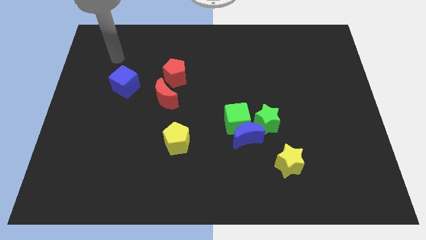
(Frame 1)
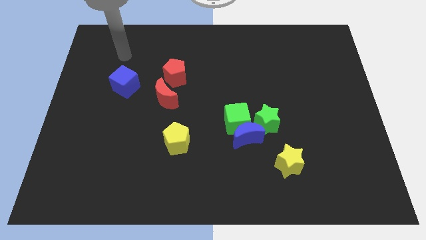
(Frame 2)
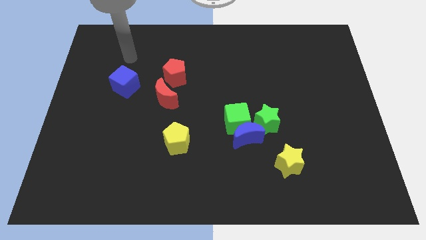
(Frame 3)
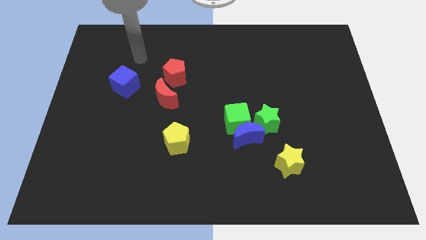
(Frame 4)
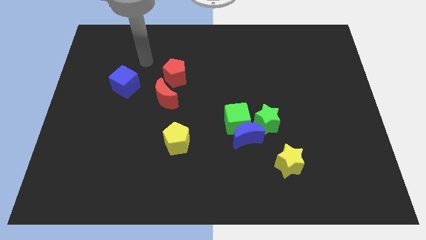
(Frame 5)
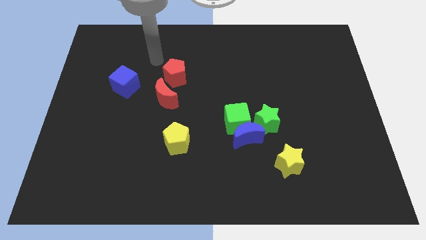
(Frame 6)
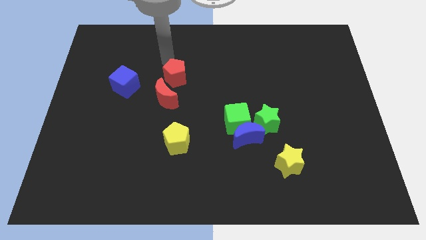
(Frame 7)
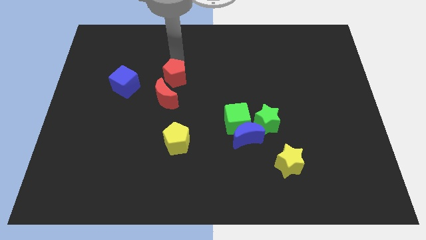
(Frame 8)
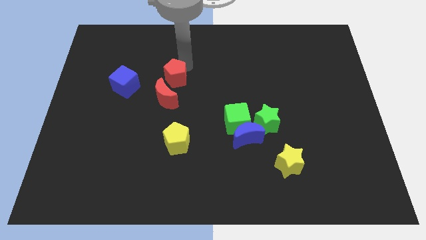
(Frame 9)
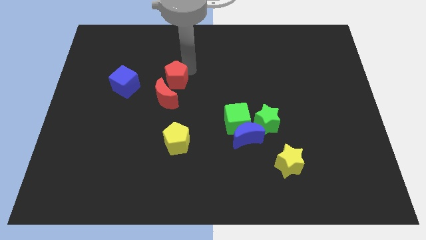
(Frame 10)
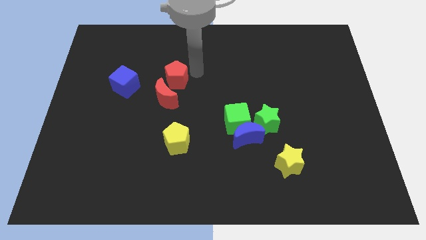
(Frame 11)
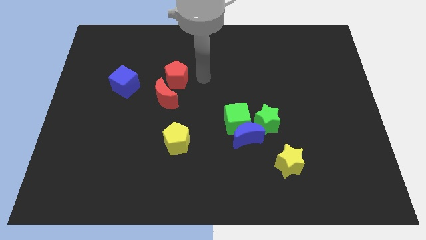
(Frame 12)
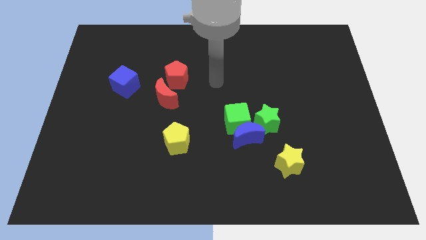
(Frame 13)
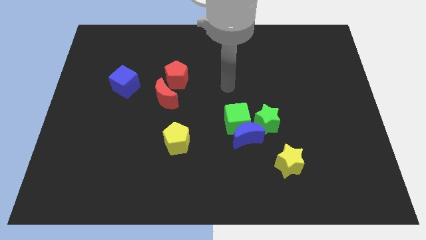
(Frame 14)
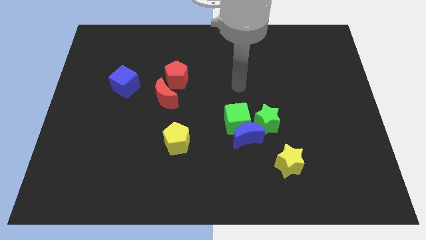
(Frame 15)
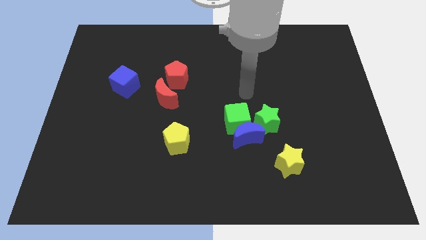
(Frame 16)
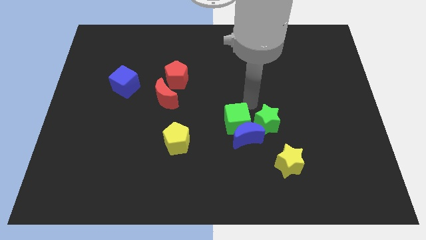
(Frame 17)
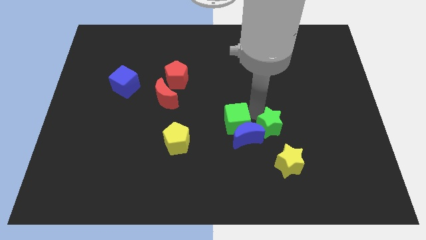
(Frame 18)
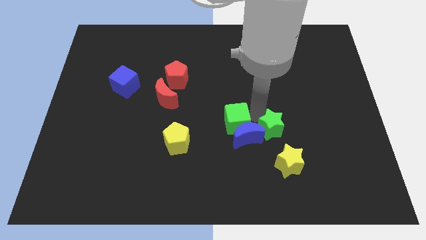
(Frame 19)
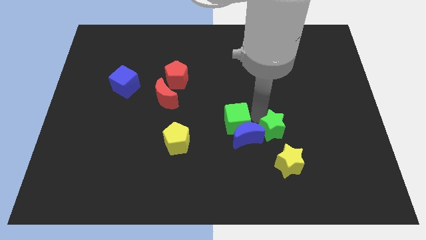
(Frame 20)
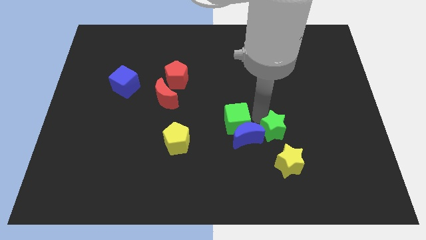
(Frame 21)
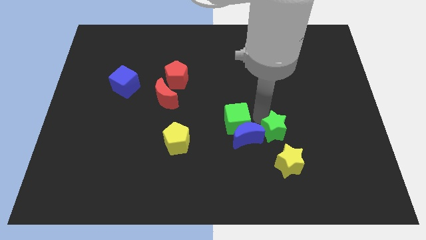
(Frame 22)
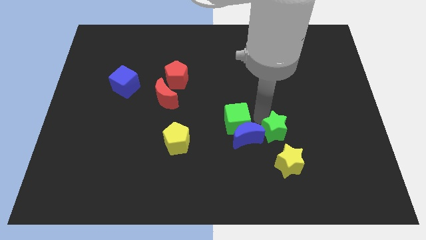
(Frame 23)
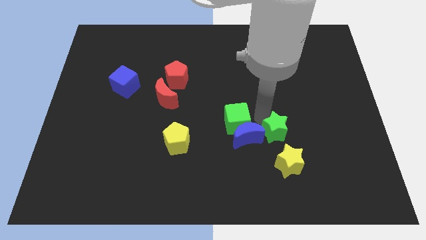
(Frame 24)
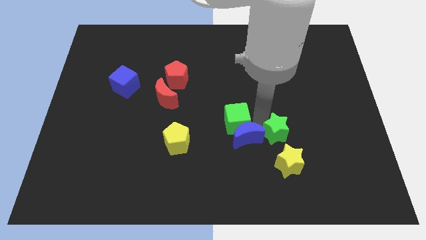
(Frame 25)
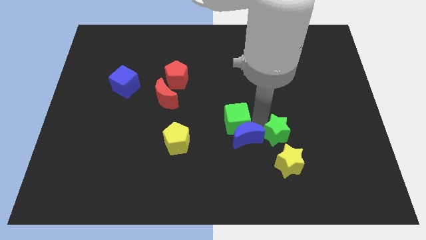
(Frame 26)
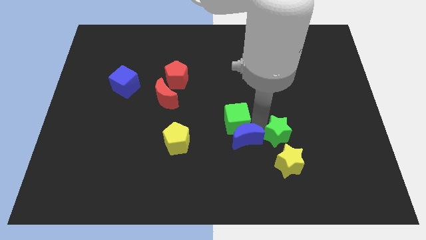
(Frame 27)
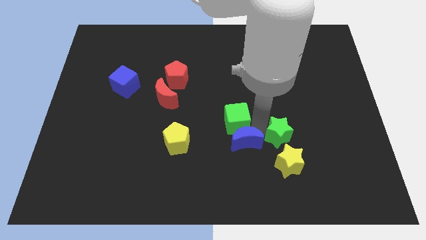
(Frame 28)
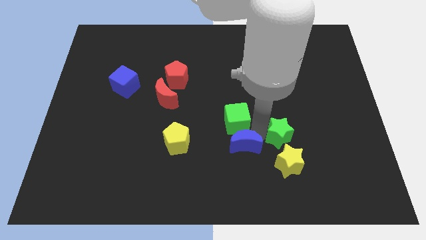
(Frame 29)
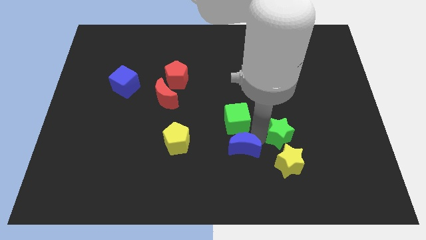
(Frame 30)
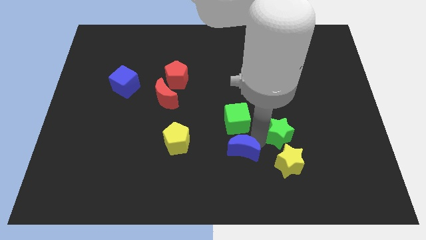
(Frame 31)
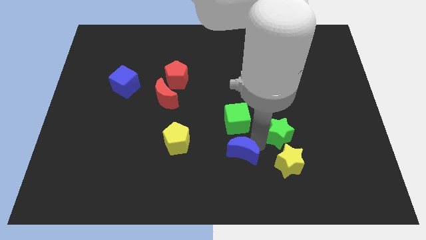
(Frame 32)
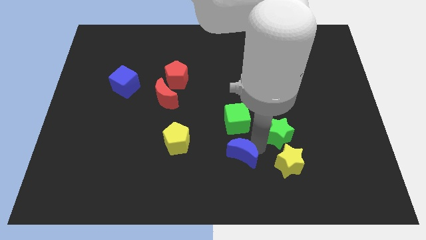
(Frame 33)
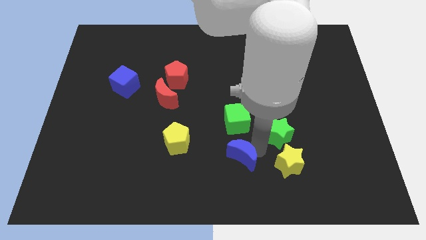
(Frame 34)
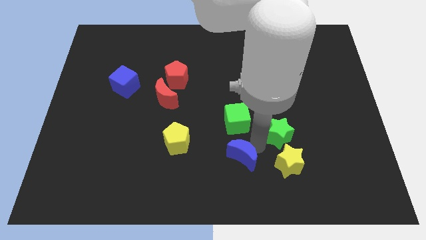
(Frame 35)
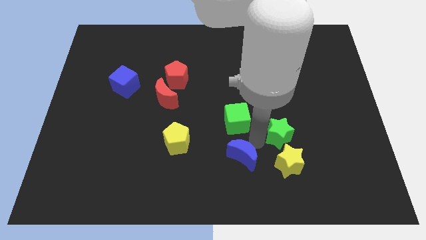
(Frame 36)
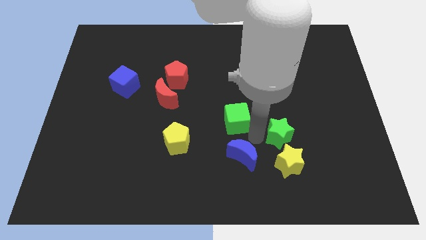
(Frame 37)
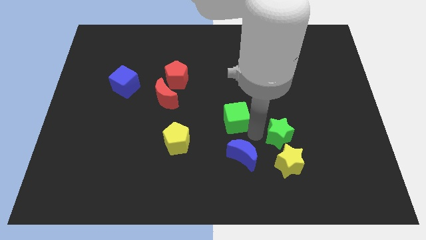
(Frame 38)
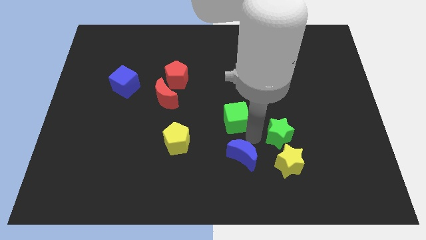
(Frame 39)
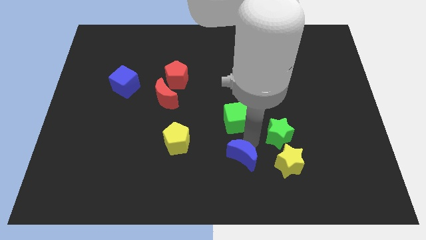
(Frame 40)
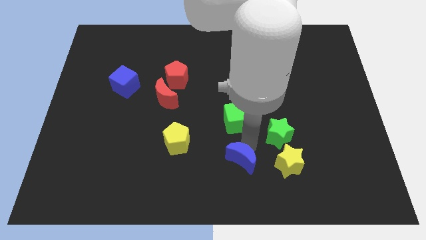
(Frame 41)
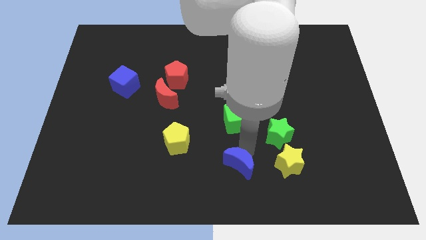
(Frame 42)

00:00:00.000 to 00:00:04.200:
move the blue moon away from the green cube and green star

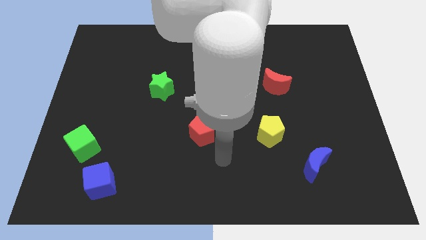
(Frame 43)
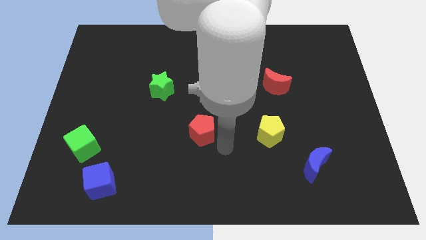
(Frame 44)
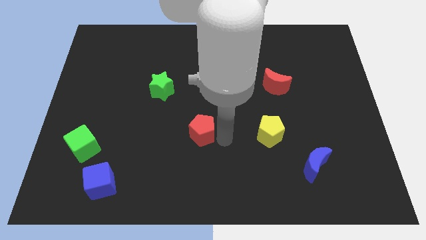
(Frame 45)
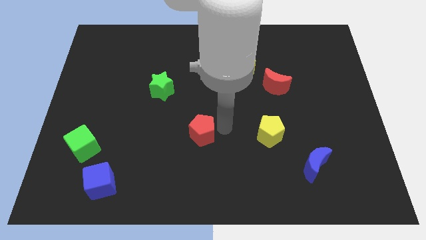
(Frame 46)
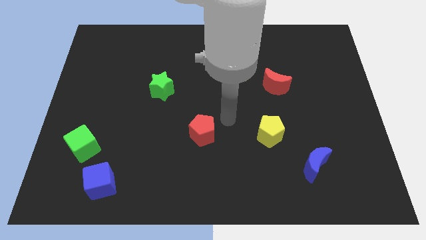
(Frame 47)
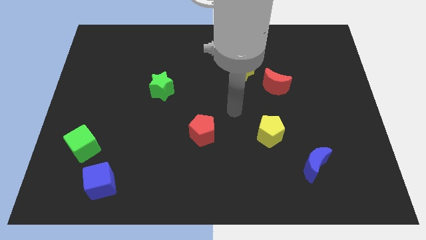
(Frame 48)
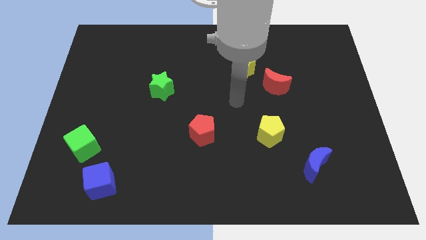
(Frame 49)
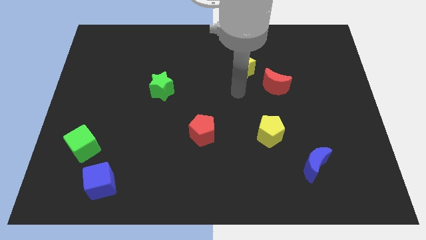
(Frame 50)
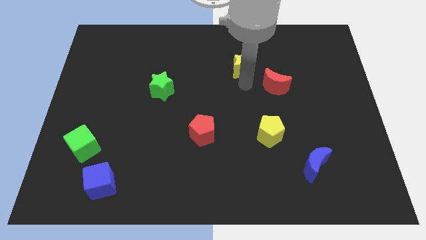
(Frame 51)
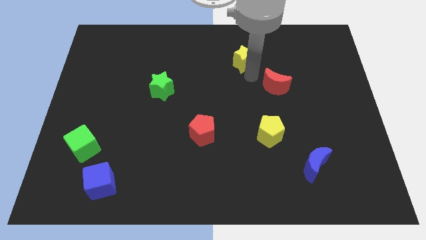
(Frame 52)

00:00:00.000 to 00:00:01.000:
move the red moon away from the yellow star

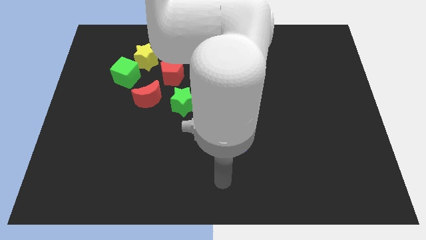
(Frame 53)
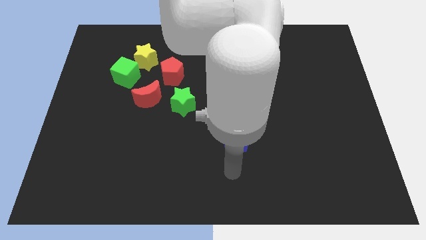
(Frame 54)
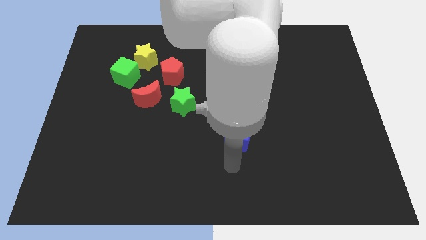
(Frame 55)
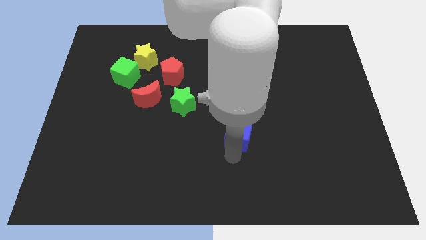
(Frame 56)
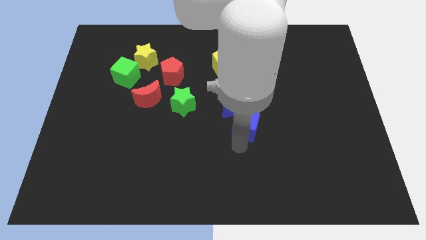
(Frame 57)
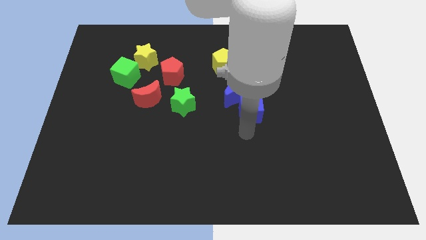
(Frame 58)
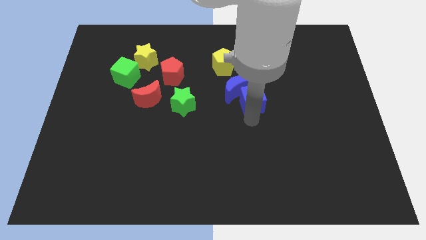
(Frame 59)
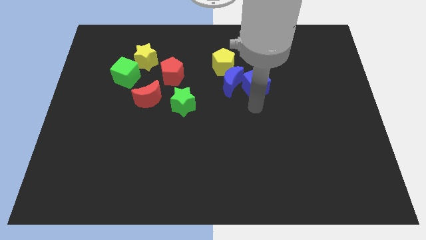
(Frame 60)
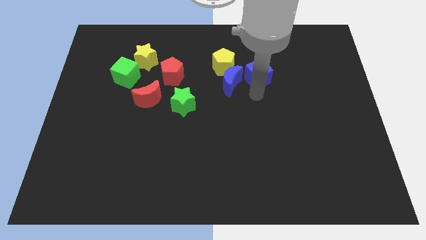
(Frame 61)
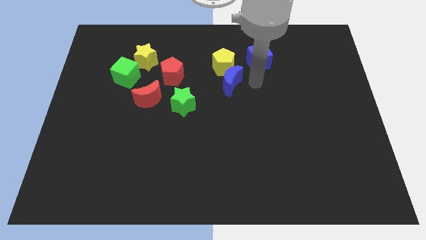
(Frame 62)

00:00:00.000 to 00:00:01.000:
separate the blue moon from the blue cube

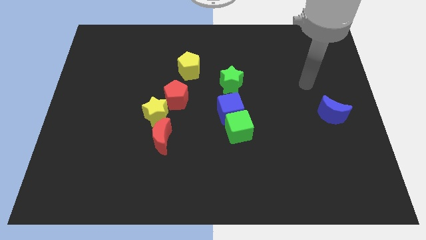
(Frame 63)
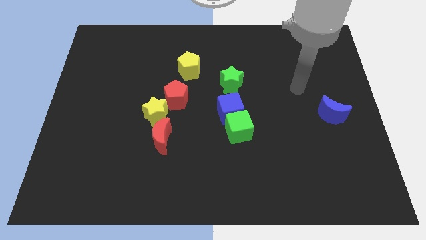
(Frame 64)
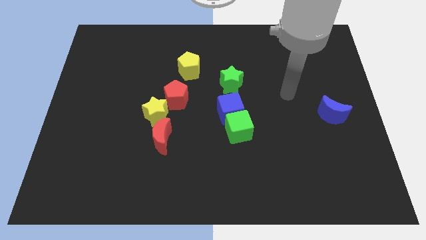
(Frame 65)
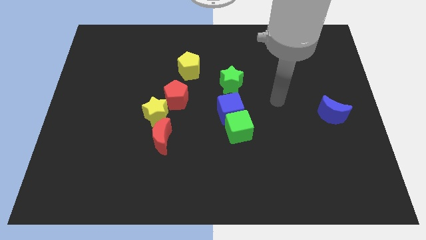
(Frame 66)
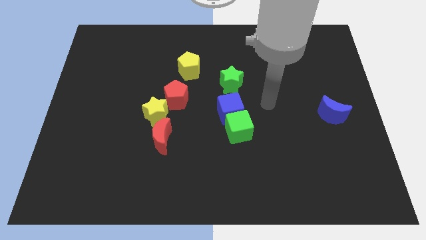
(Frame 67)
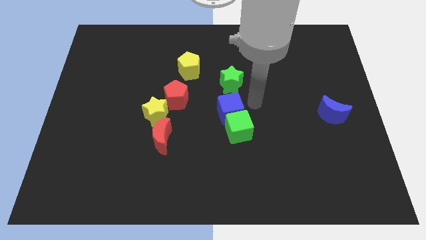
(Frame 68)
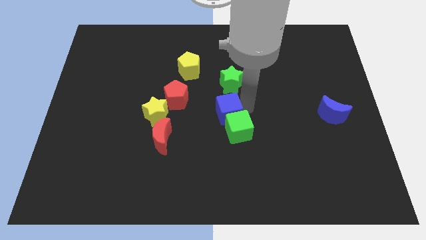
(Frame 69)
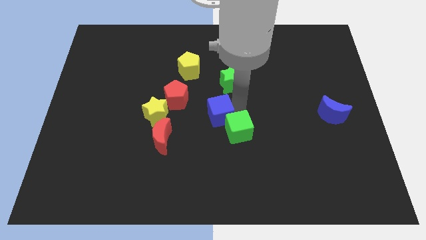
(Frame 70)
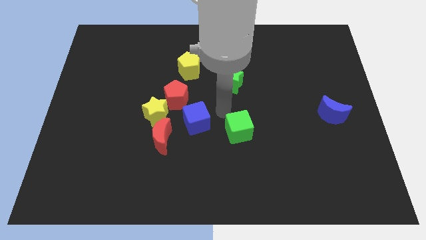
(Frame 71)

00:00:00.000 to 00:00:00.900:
pull the green cube apart from the blue cube

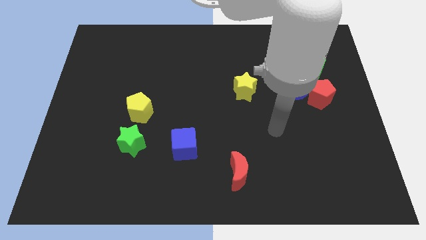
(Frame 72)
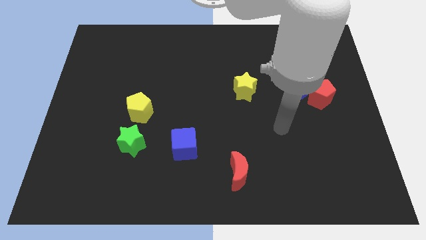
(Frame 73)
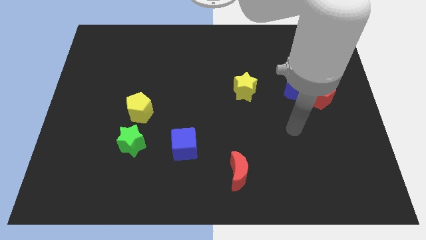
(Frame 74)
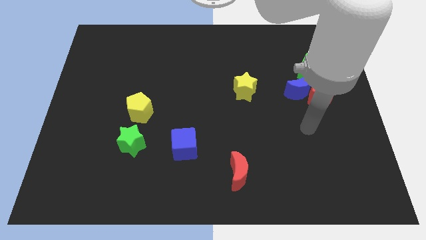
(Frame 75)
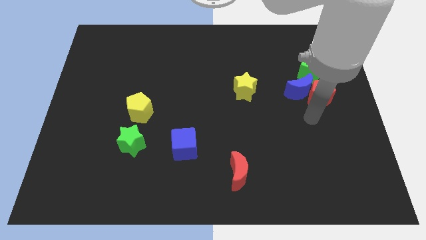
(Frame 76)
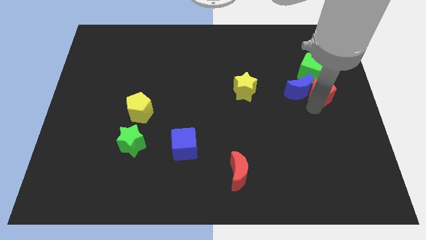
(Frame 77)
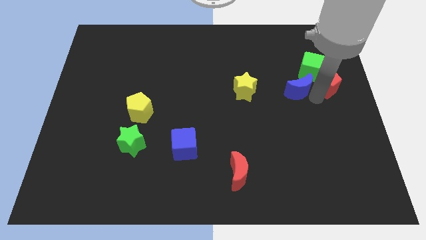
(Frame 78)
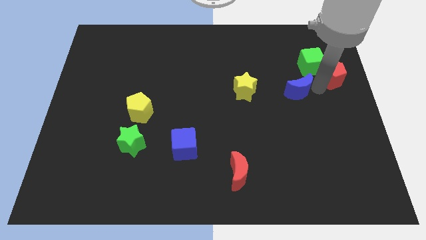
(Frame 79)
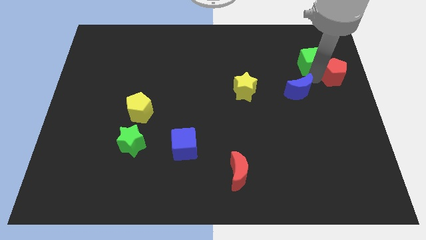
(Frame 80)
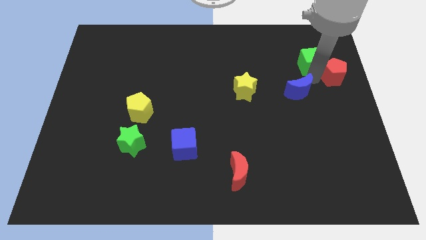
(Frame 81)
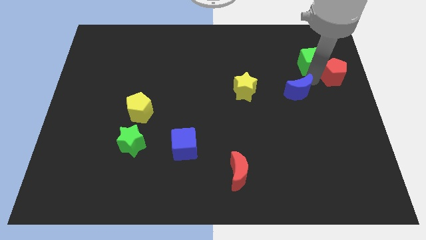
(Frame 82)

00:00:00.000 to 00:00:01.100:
separate the blue moon from the red pentagon and green cube

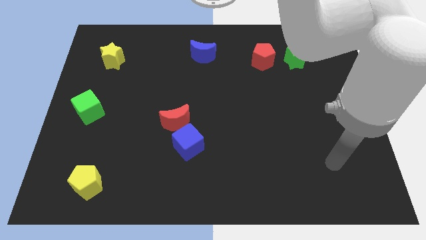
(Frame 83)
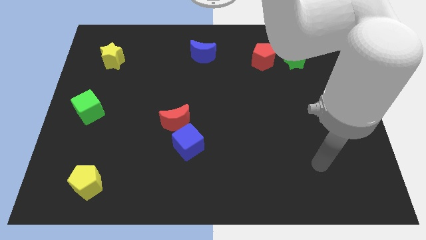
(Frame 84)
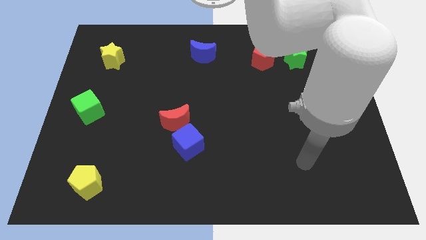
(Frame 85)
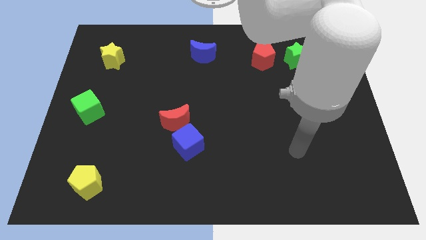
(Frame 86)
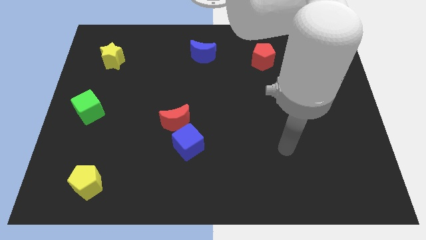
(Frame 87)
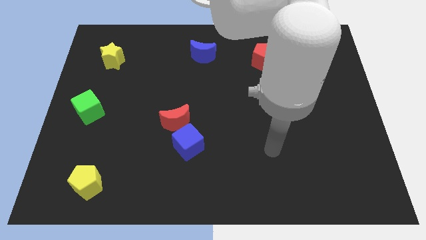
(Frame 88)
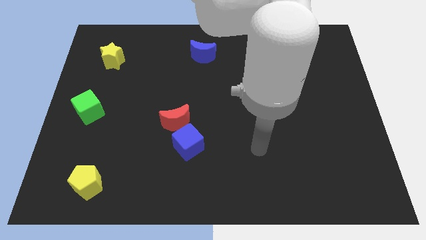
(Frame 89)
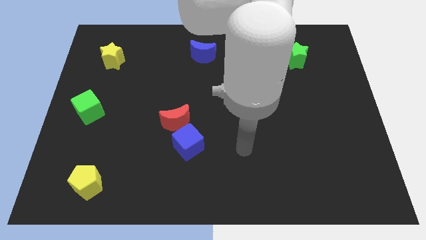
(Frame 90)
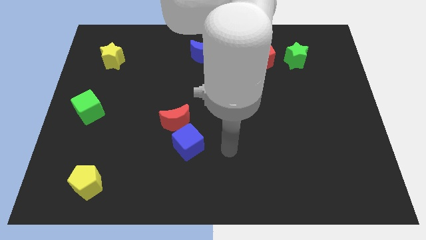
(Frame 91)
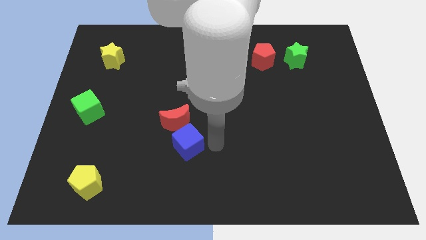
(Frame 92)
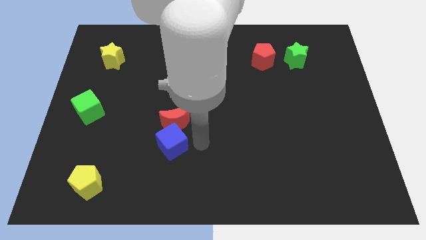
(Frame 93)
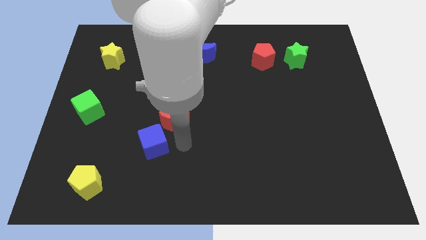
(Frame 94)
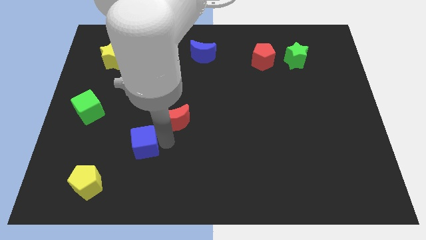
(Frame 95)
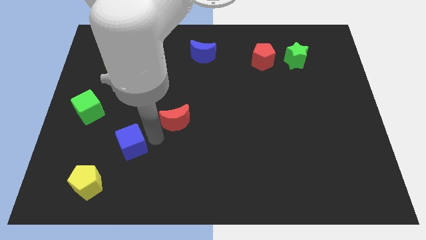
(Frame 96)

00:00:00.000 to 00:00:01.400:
move the red moon away from the blue cube
